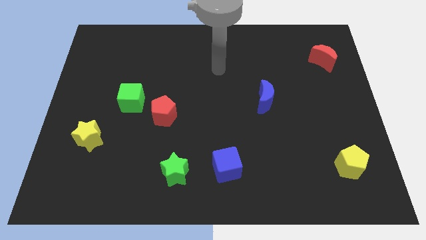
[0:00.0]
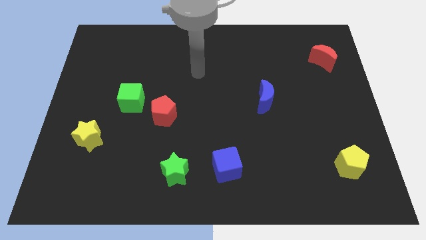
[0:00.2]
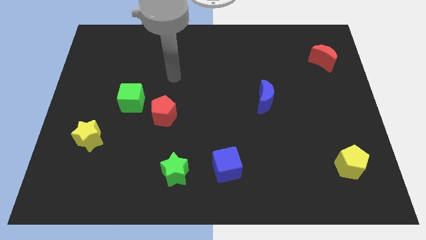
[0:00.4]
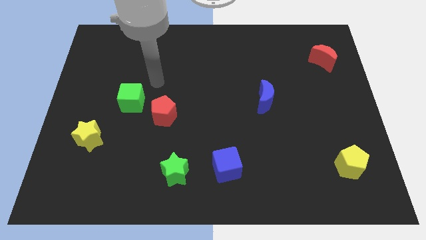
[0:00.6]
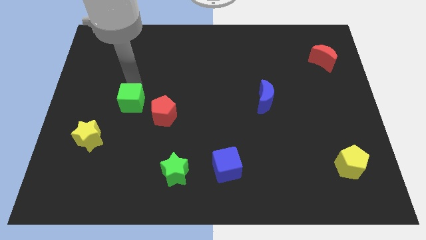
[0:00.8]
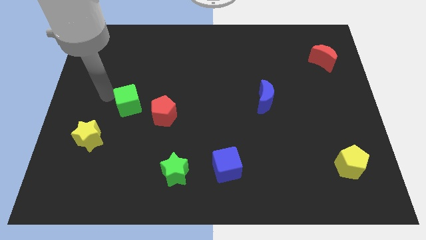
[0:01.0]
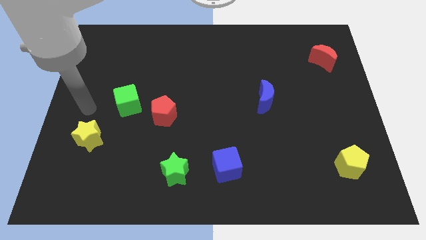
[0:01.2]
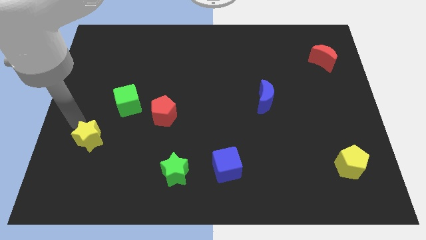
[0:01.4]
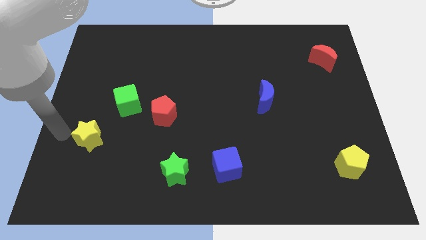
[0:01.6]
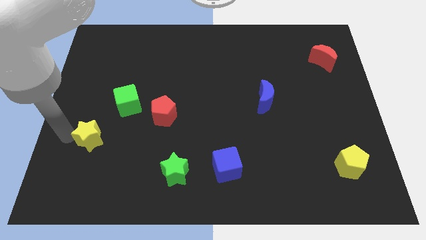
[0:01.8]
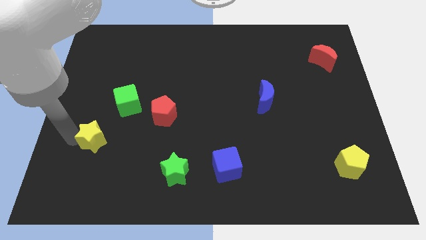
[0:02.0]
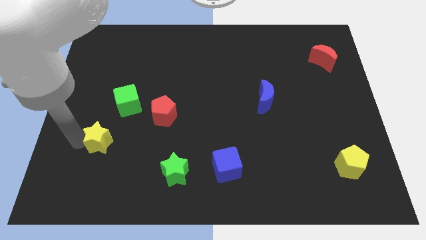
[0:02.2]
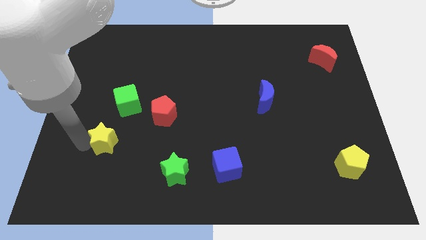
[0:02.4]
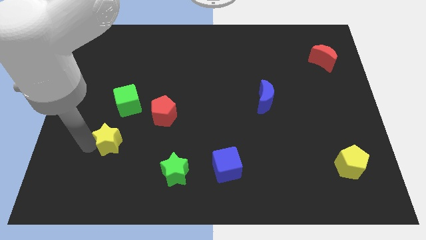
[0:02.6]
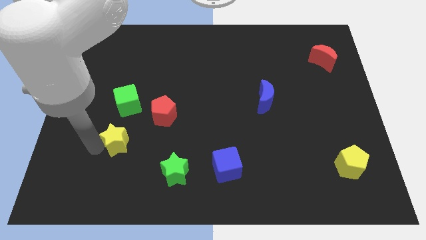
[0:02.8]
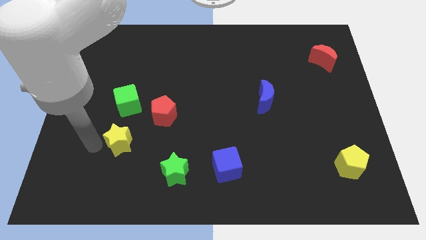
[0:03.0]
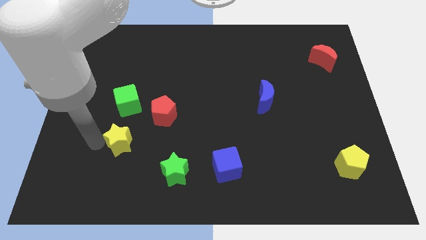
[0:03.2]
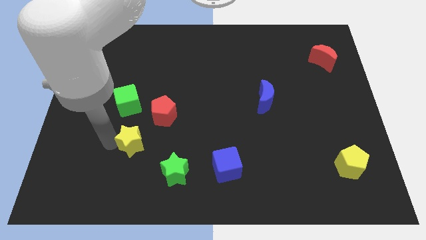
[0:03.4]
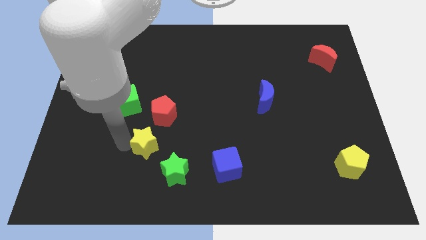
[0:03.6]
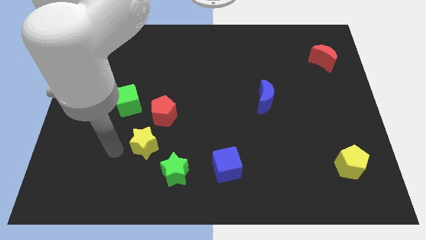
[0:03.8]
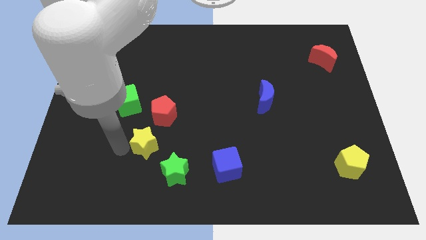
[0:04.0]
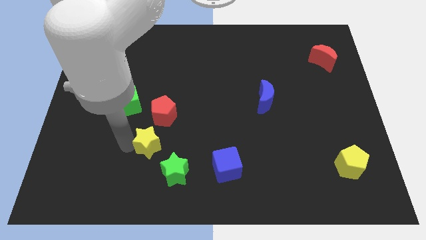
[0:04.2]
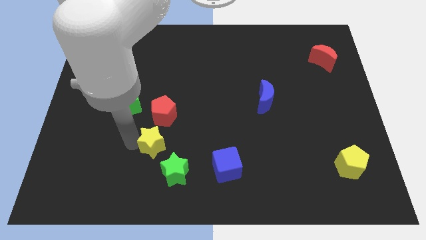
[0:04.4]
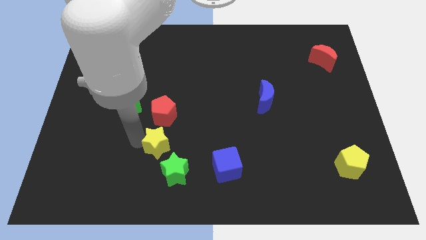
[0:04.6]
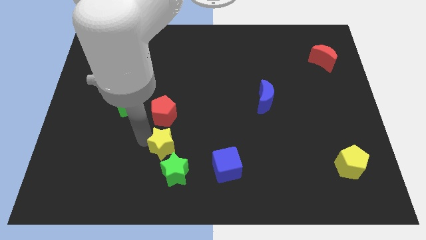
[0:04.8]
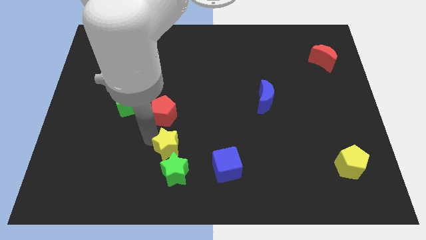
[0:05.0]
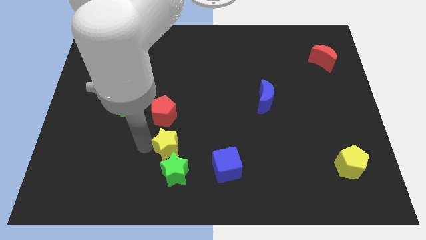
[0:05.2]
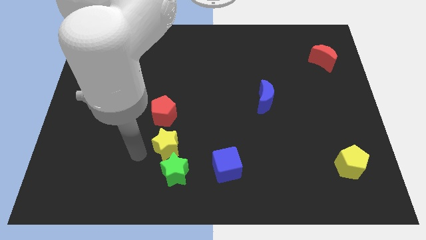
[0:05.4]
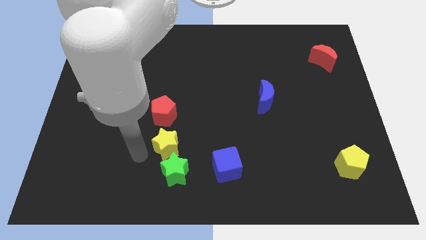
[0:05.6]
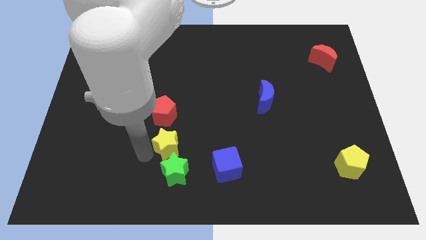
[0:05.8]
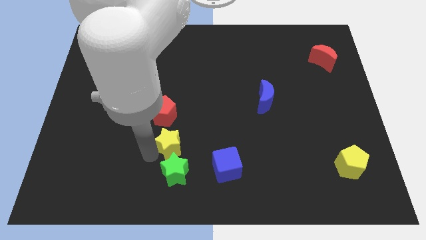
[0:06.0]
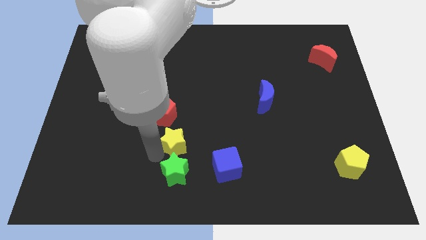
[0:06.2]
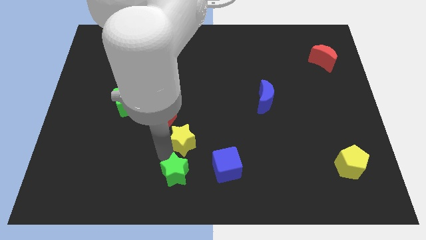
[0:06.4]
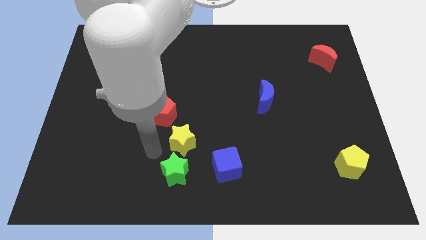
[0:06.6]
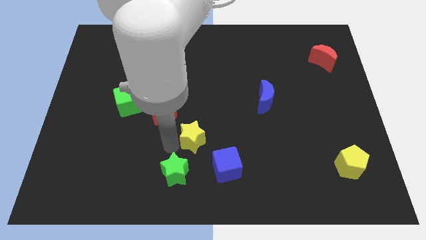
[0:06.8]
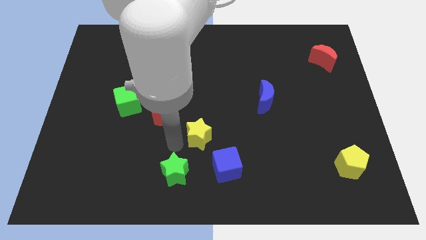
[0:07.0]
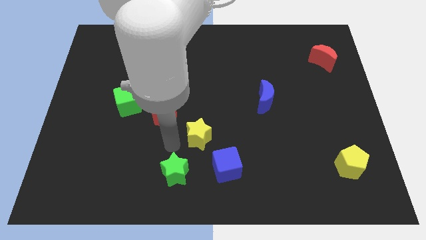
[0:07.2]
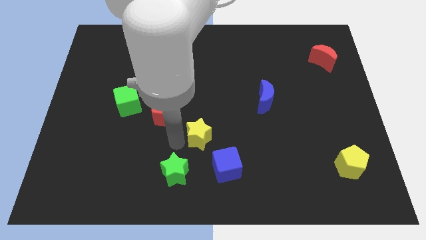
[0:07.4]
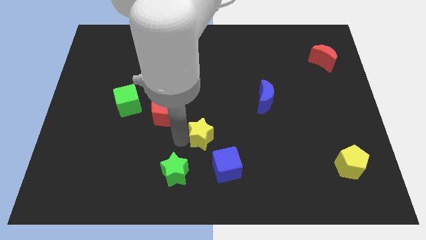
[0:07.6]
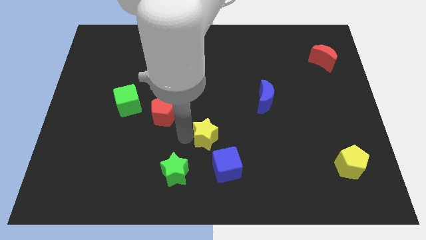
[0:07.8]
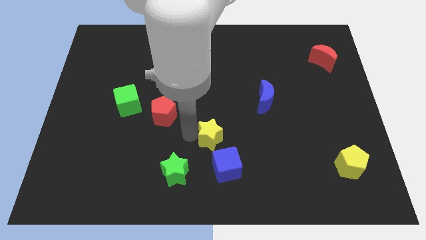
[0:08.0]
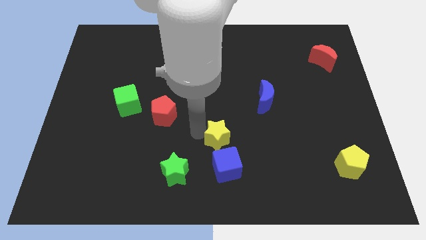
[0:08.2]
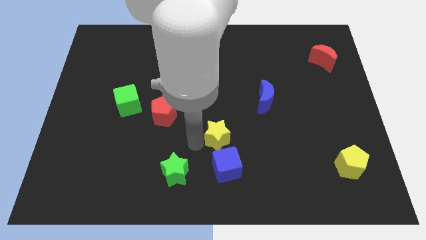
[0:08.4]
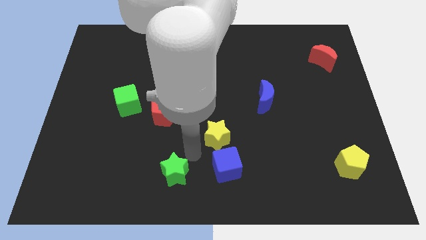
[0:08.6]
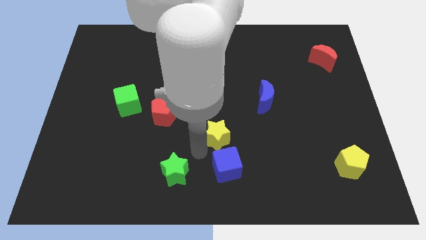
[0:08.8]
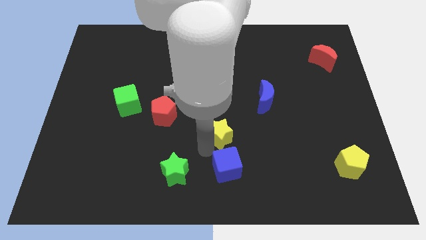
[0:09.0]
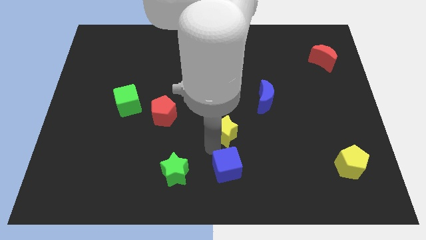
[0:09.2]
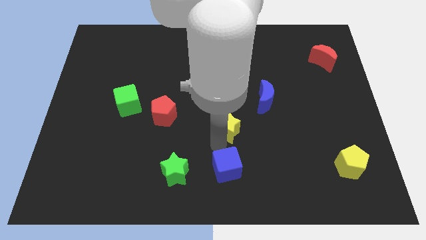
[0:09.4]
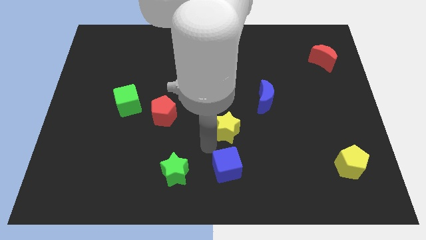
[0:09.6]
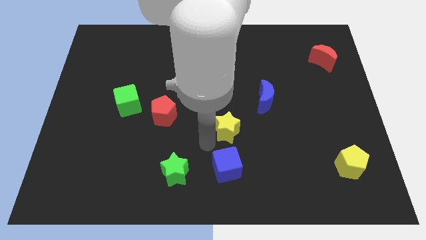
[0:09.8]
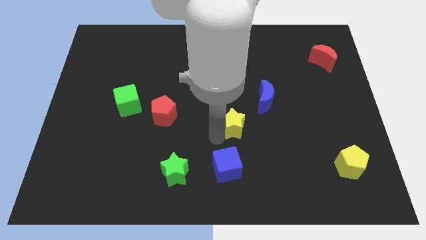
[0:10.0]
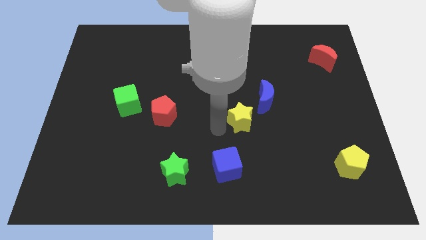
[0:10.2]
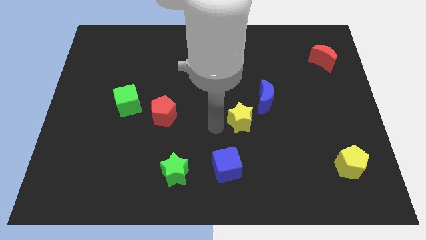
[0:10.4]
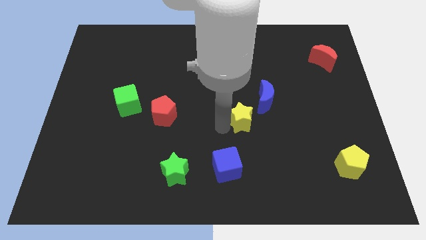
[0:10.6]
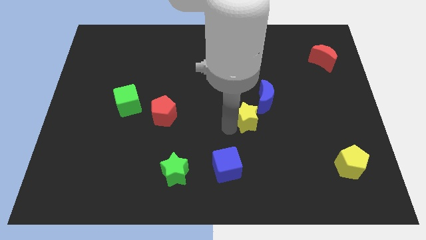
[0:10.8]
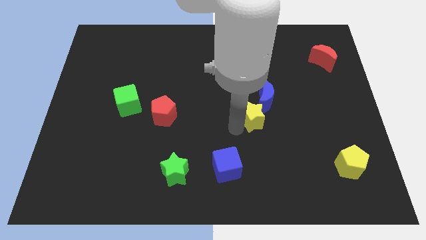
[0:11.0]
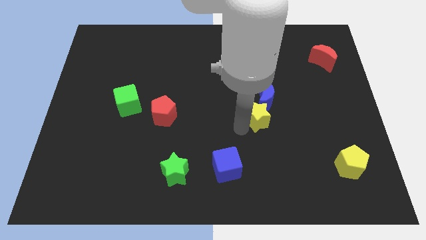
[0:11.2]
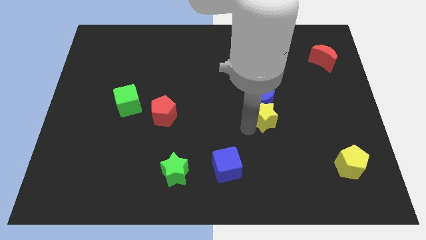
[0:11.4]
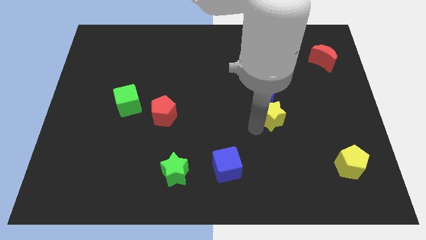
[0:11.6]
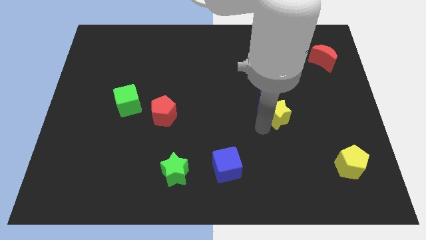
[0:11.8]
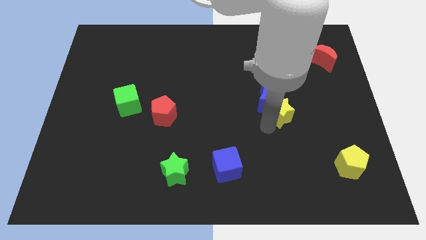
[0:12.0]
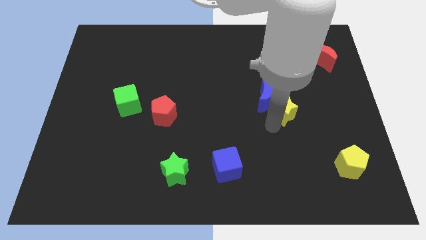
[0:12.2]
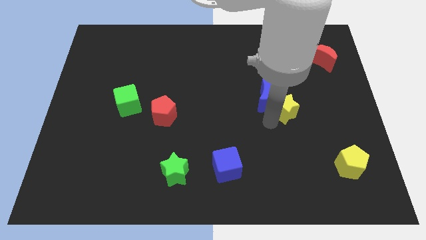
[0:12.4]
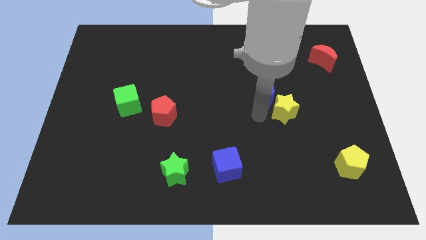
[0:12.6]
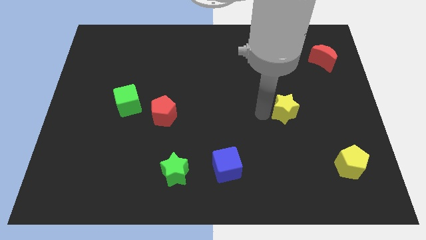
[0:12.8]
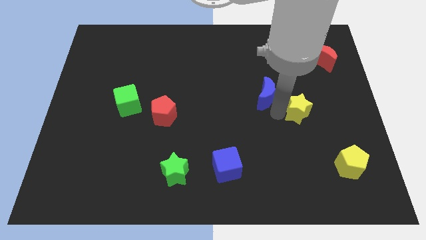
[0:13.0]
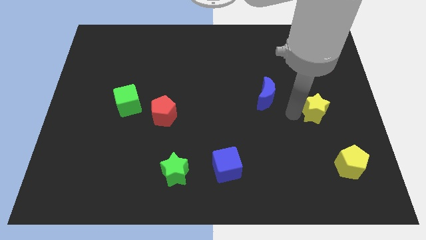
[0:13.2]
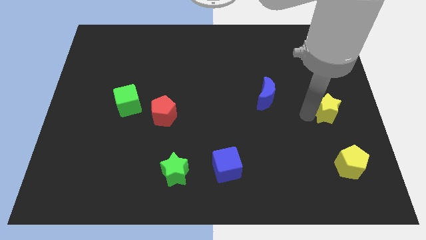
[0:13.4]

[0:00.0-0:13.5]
slide the yellow star to the right side

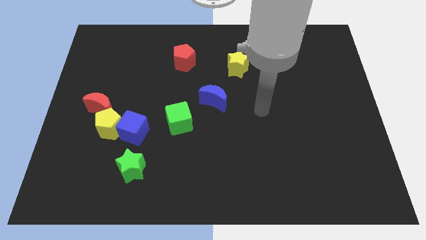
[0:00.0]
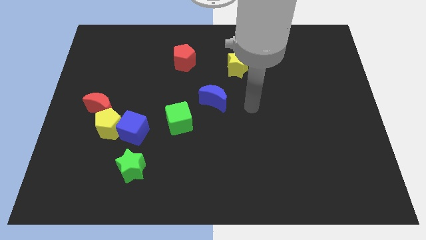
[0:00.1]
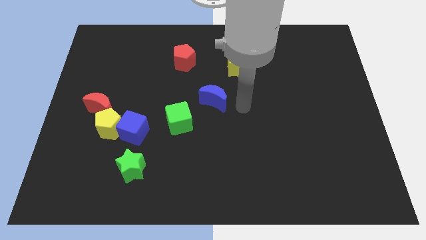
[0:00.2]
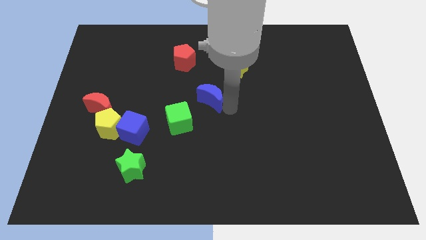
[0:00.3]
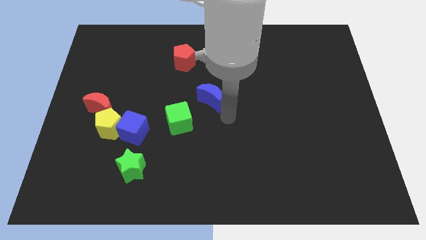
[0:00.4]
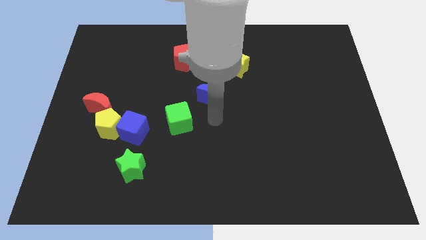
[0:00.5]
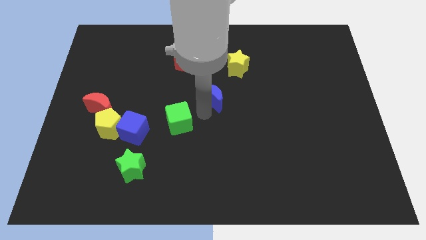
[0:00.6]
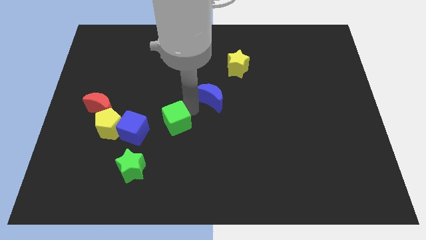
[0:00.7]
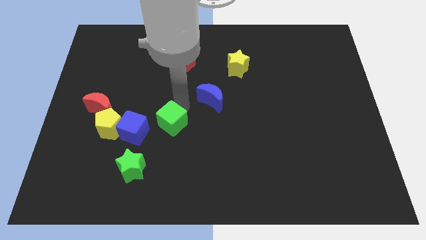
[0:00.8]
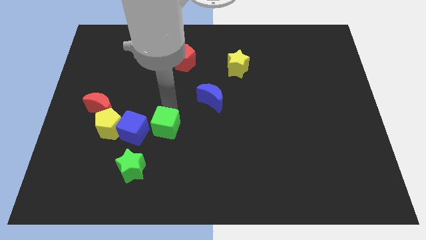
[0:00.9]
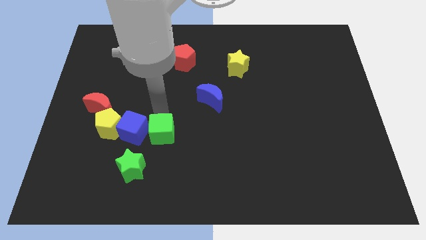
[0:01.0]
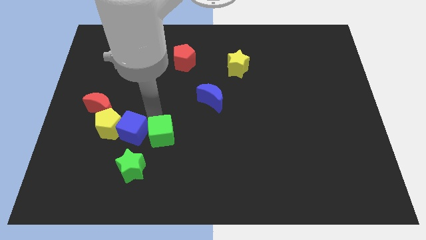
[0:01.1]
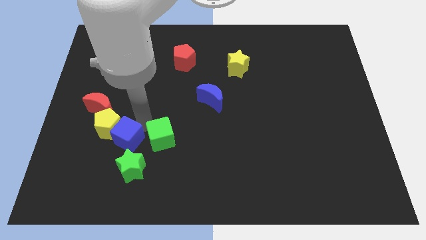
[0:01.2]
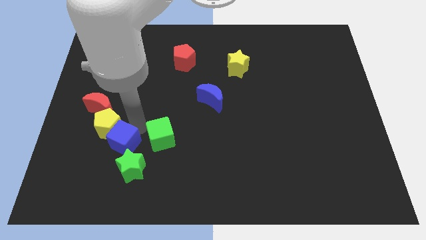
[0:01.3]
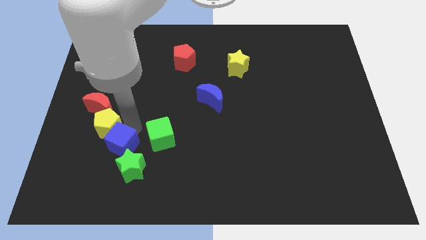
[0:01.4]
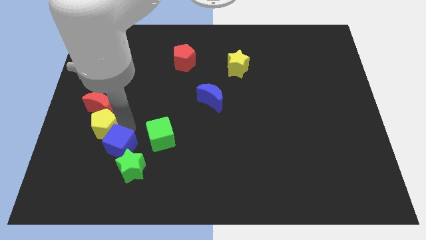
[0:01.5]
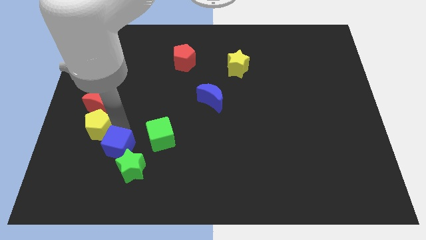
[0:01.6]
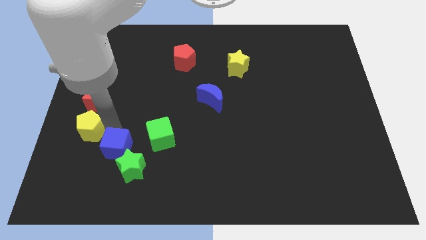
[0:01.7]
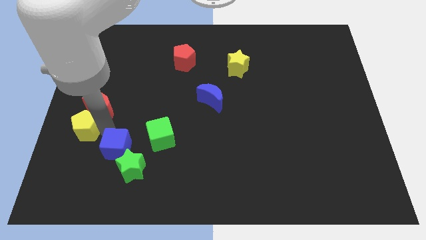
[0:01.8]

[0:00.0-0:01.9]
slide the yellow pentagon to the left side of the board
